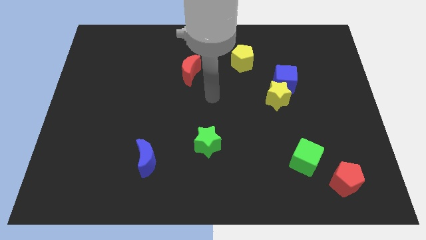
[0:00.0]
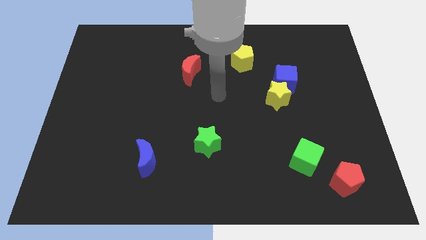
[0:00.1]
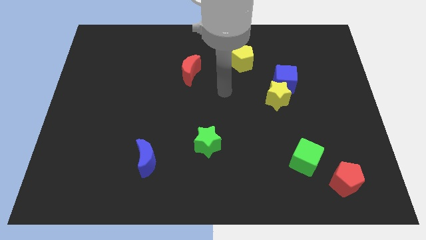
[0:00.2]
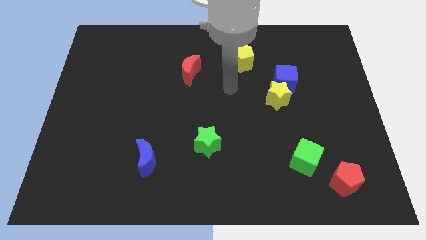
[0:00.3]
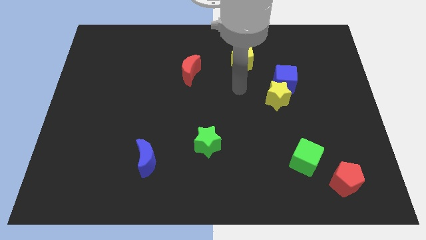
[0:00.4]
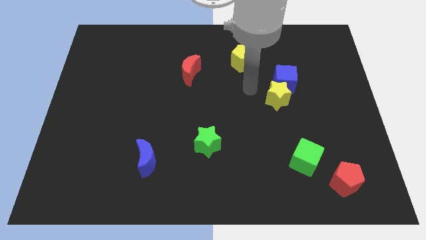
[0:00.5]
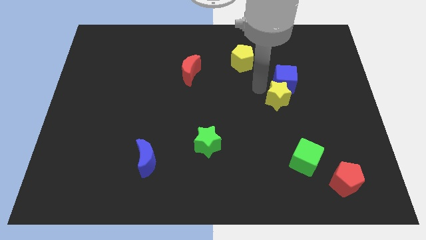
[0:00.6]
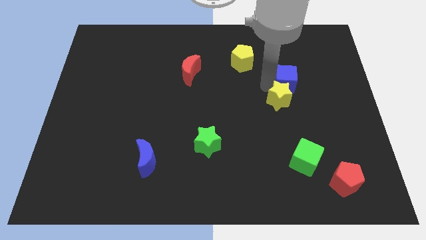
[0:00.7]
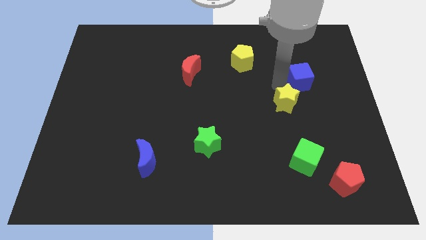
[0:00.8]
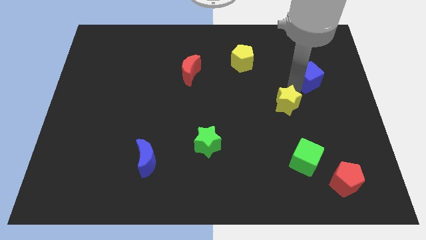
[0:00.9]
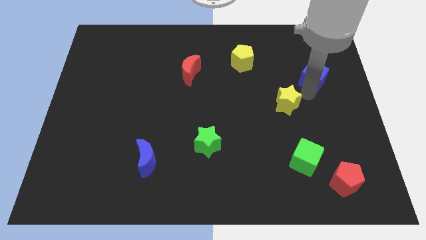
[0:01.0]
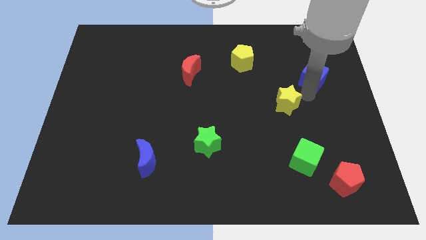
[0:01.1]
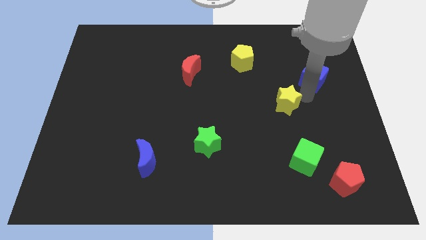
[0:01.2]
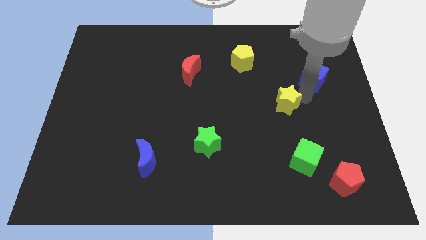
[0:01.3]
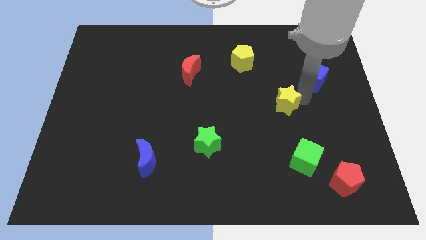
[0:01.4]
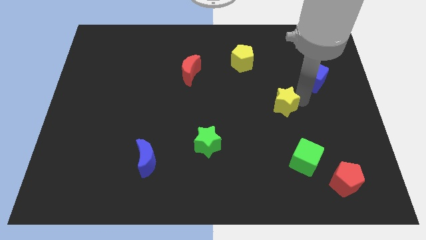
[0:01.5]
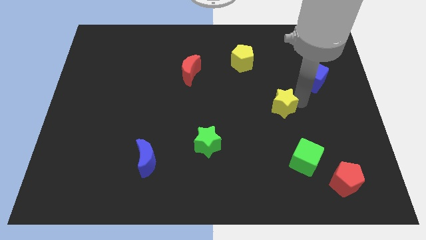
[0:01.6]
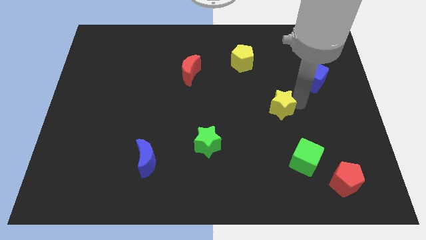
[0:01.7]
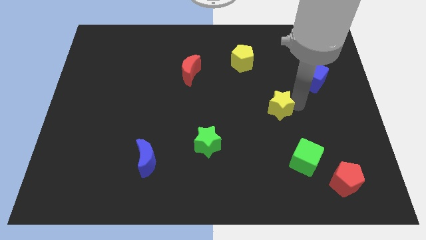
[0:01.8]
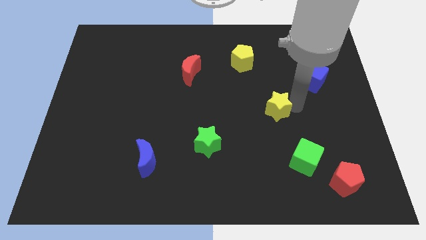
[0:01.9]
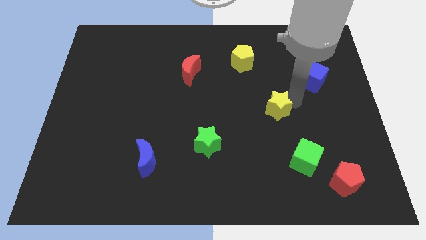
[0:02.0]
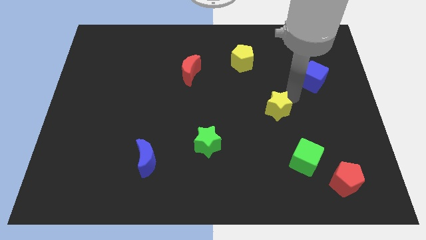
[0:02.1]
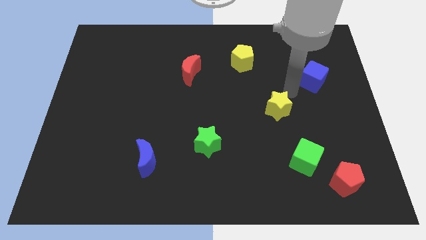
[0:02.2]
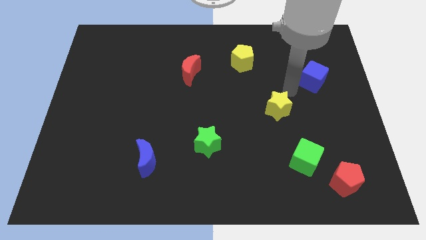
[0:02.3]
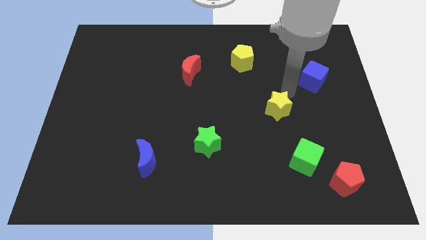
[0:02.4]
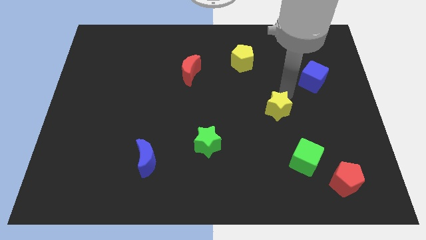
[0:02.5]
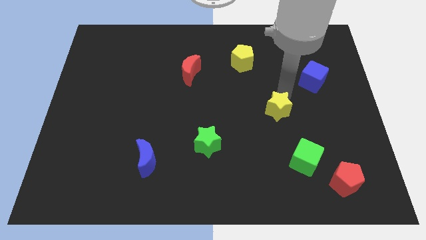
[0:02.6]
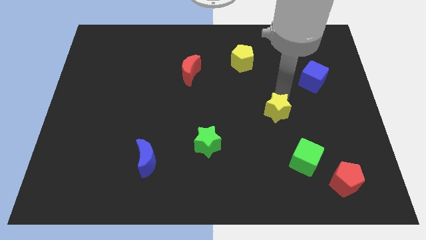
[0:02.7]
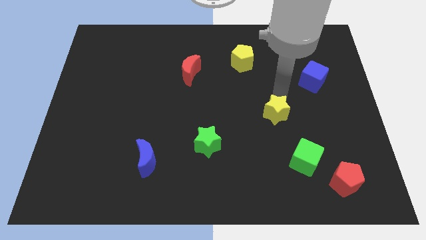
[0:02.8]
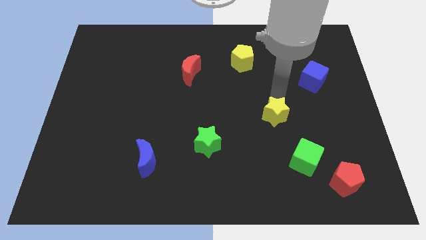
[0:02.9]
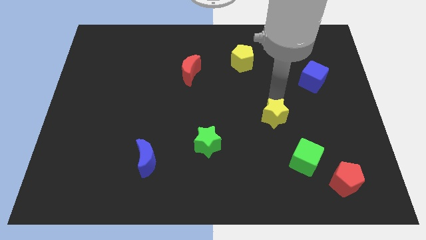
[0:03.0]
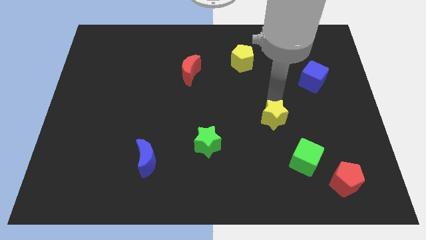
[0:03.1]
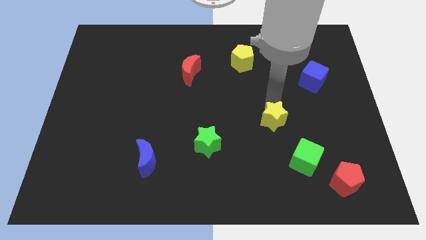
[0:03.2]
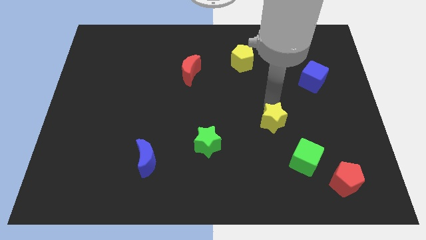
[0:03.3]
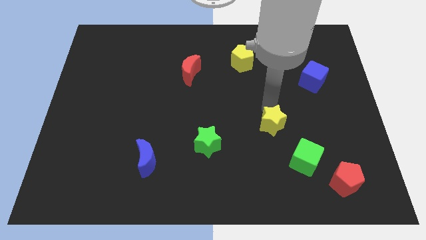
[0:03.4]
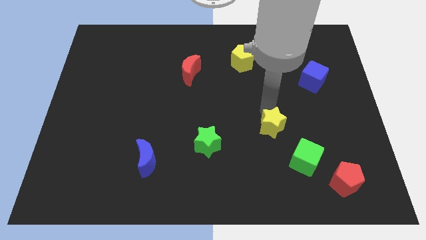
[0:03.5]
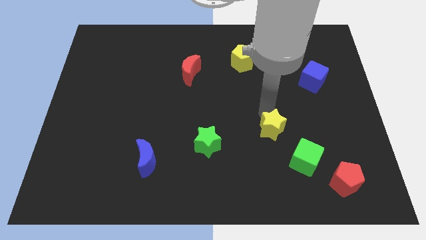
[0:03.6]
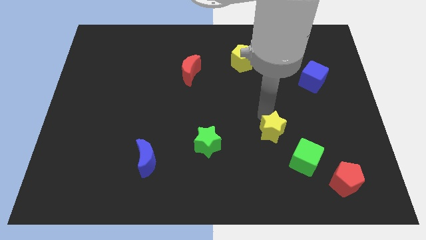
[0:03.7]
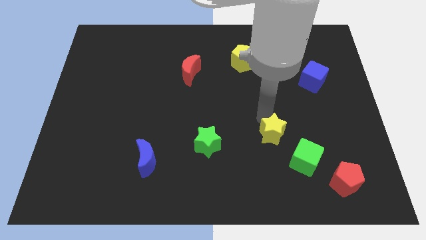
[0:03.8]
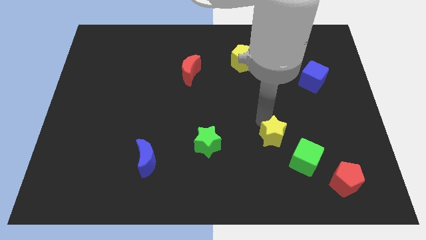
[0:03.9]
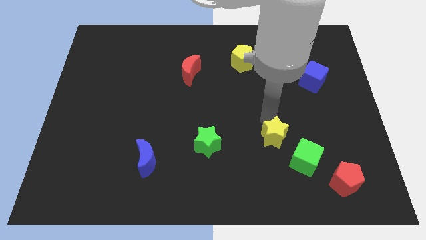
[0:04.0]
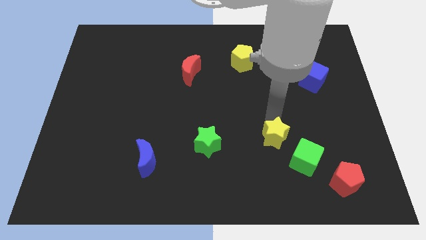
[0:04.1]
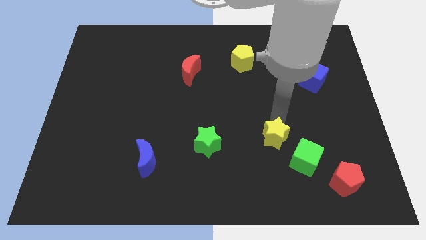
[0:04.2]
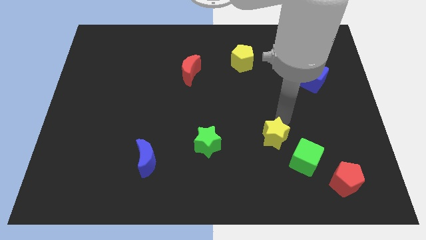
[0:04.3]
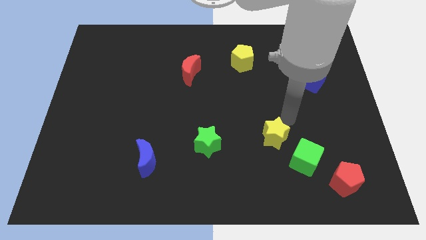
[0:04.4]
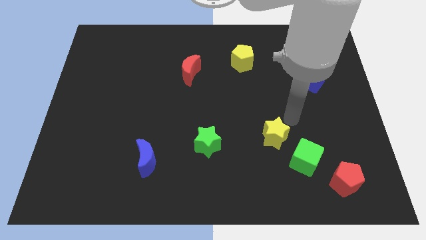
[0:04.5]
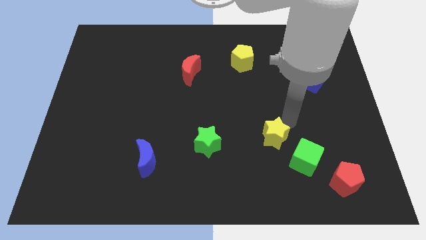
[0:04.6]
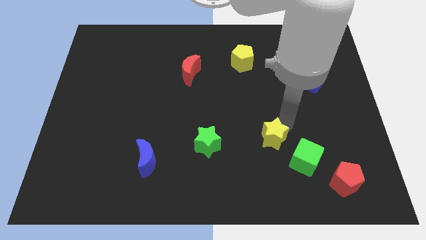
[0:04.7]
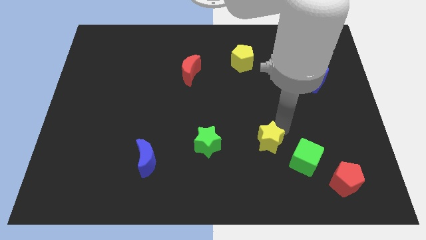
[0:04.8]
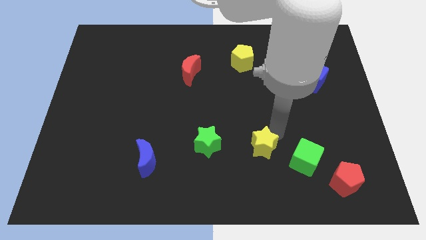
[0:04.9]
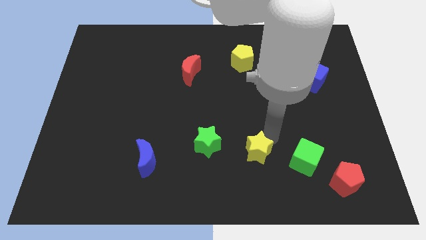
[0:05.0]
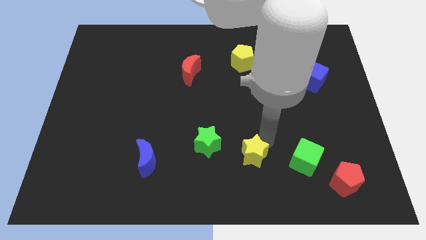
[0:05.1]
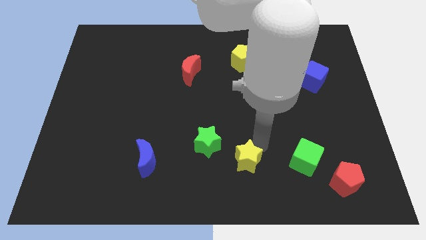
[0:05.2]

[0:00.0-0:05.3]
put the yellow star to the bottom

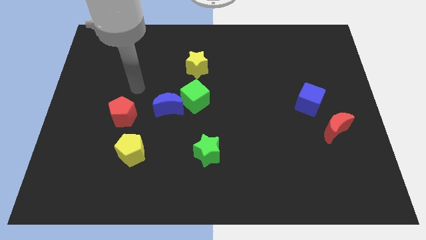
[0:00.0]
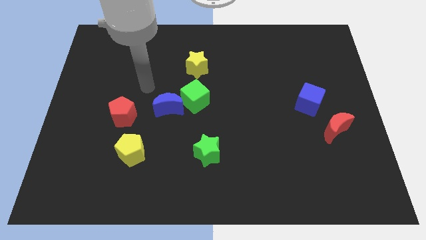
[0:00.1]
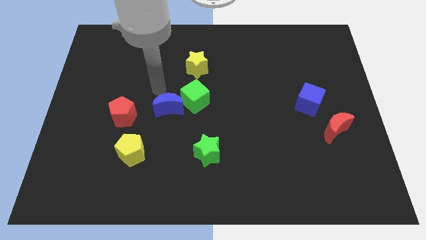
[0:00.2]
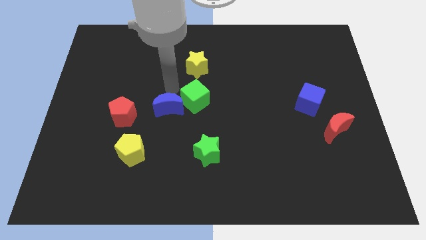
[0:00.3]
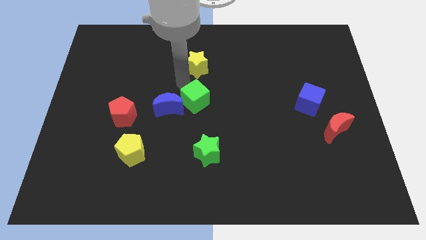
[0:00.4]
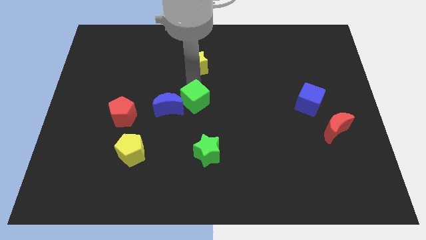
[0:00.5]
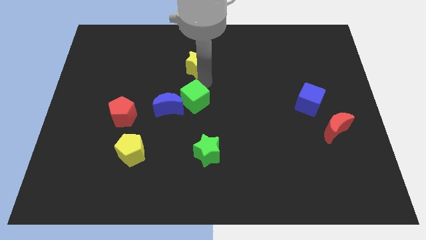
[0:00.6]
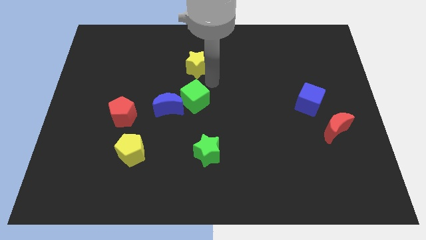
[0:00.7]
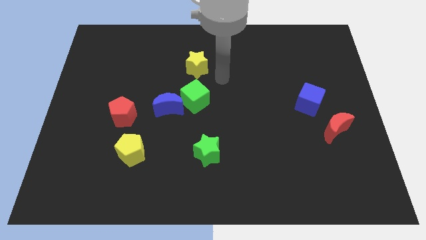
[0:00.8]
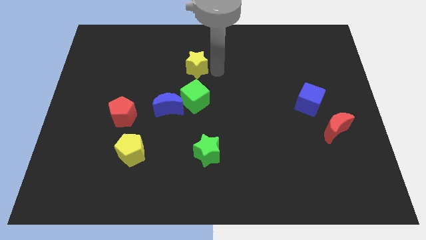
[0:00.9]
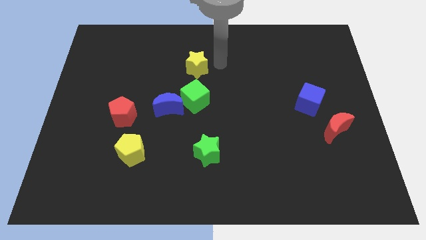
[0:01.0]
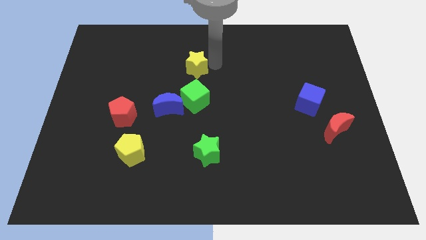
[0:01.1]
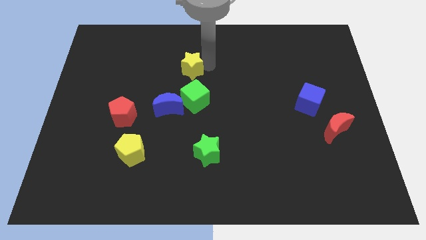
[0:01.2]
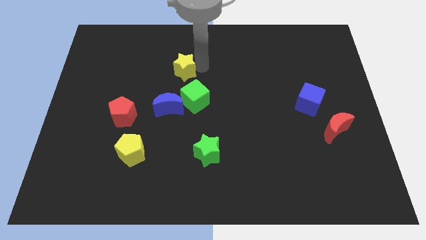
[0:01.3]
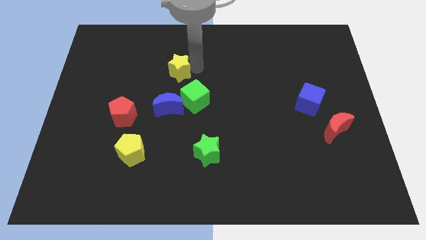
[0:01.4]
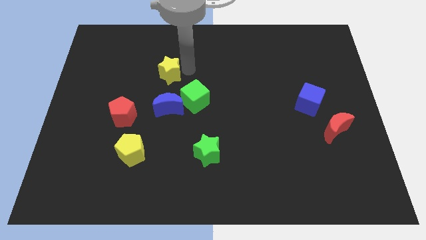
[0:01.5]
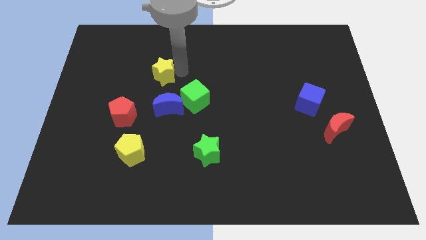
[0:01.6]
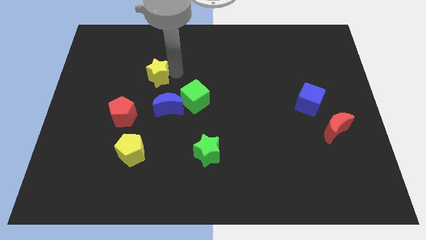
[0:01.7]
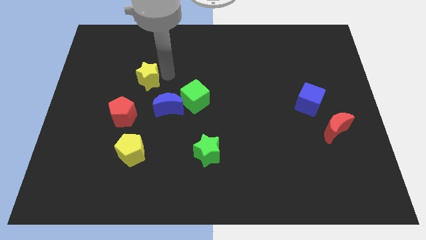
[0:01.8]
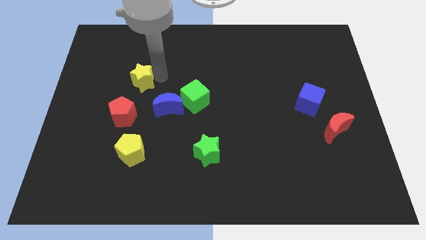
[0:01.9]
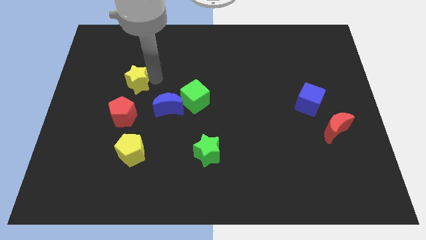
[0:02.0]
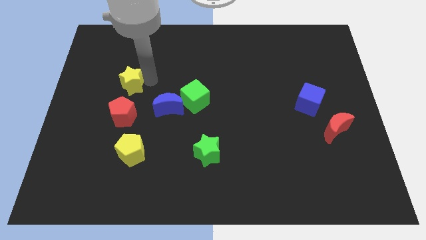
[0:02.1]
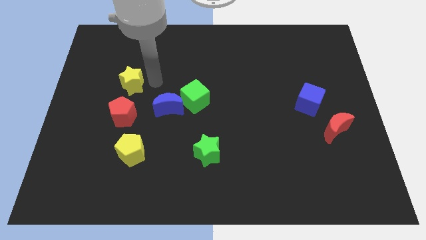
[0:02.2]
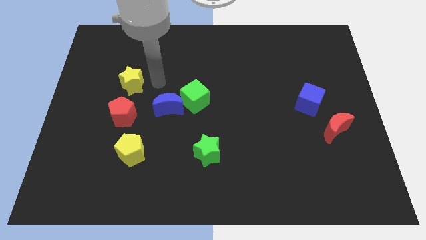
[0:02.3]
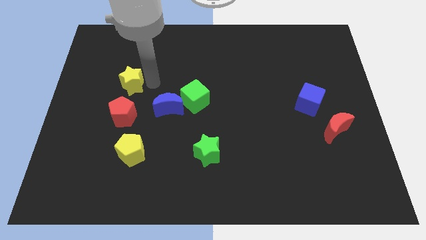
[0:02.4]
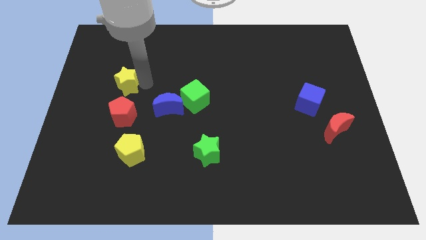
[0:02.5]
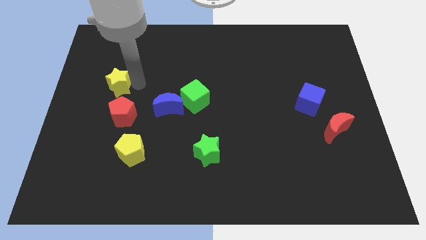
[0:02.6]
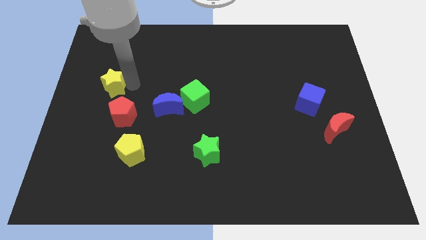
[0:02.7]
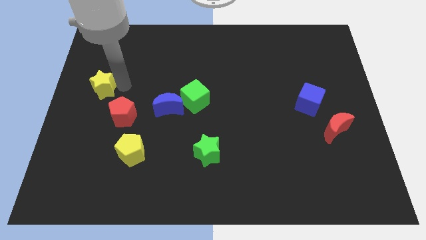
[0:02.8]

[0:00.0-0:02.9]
move the yellow star to the left side of the board
